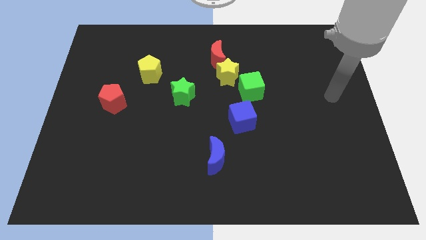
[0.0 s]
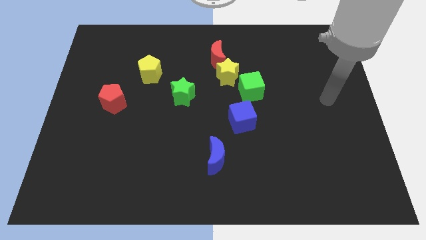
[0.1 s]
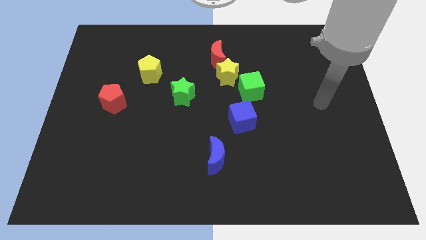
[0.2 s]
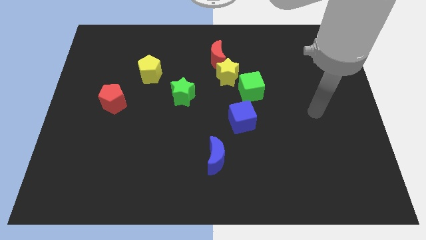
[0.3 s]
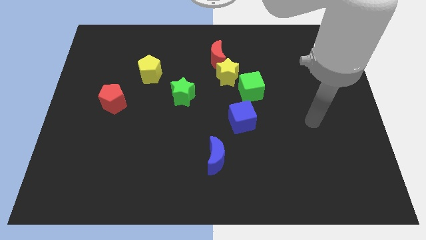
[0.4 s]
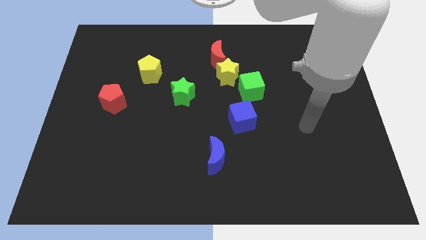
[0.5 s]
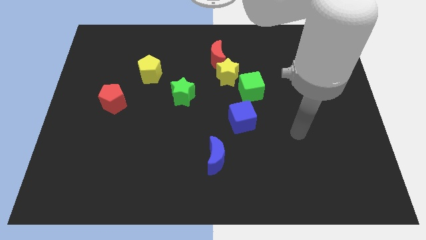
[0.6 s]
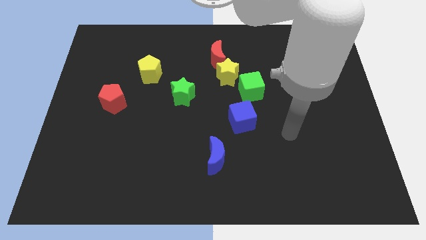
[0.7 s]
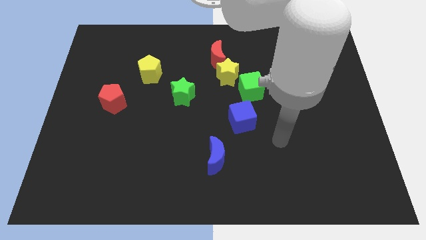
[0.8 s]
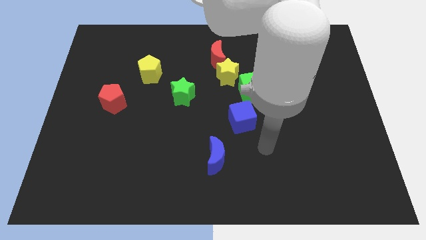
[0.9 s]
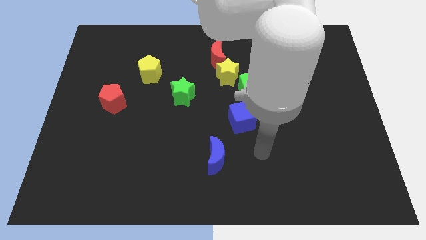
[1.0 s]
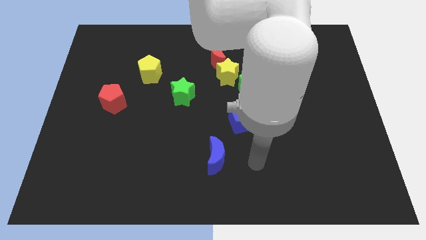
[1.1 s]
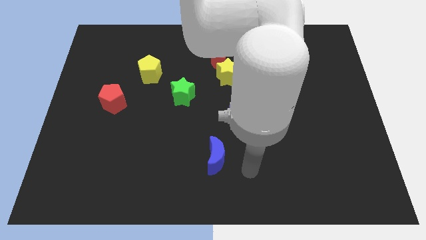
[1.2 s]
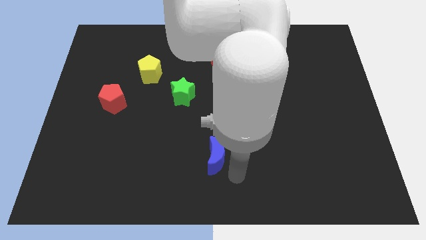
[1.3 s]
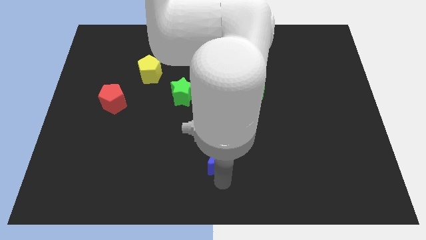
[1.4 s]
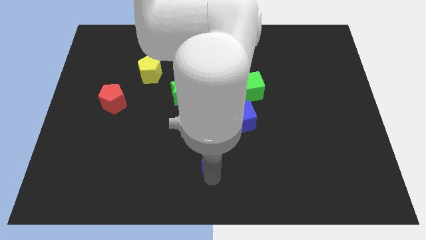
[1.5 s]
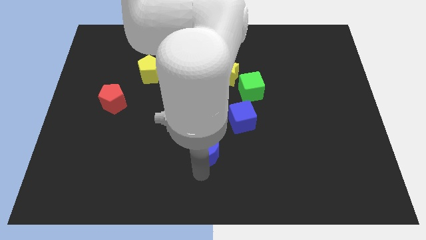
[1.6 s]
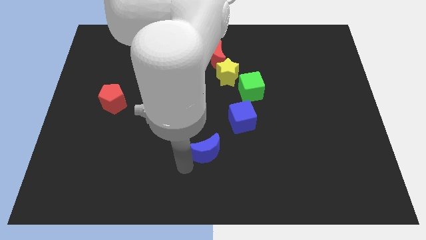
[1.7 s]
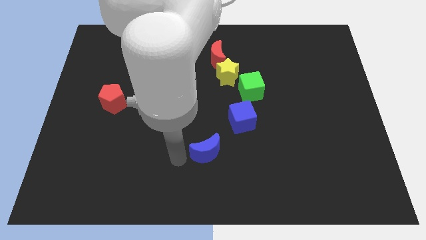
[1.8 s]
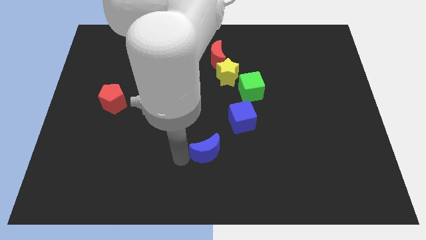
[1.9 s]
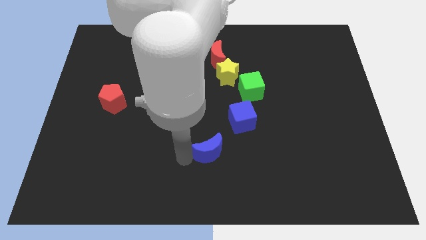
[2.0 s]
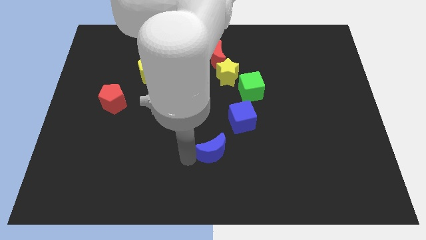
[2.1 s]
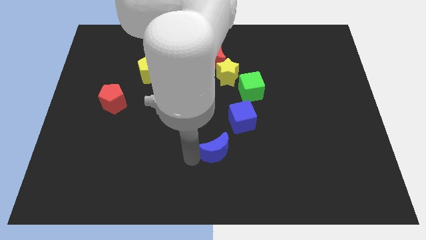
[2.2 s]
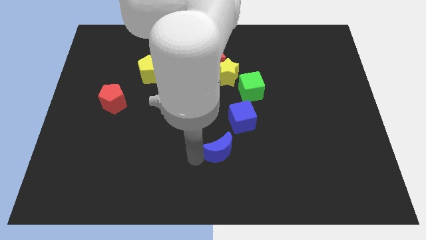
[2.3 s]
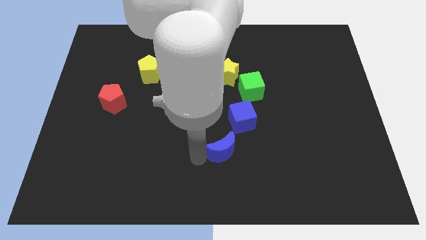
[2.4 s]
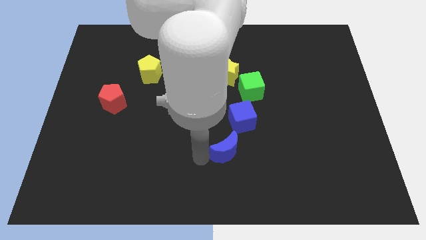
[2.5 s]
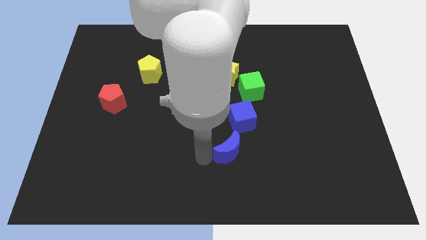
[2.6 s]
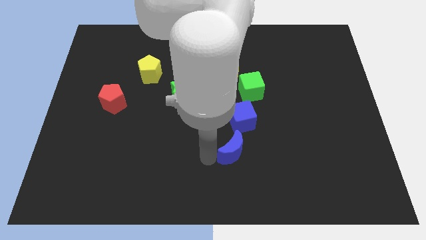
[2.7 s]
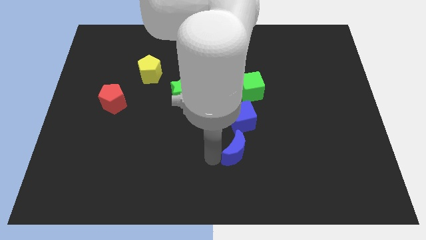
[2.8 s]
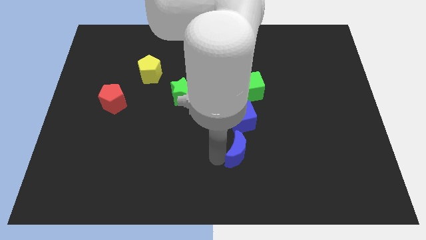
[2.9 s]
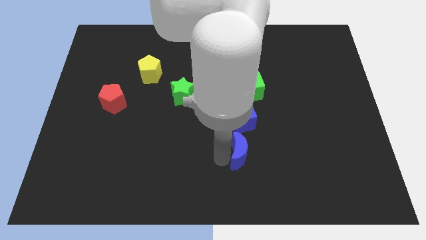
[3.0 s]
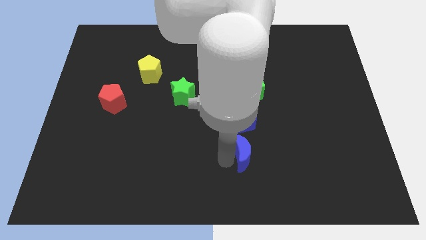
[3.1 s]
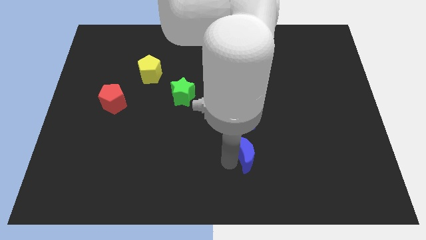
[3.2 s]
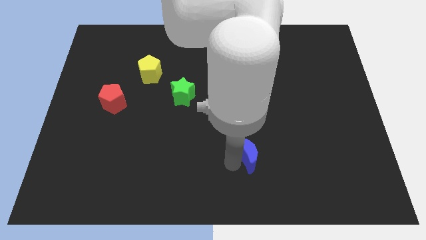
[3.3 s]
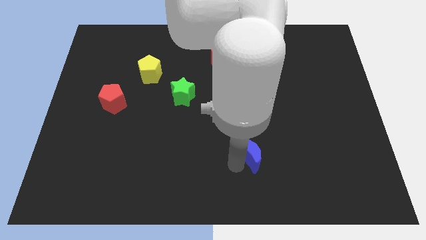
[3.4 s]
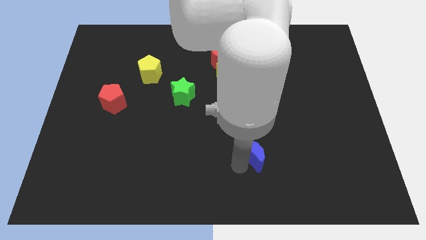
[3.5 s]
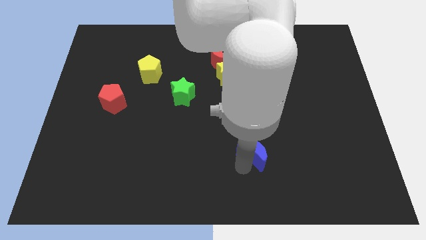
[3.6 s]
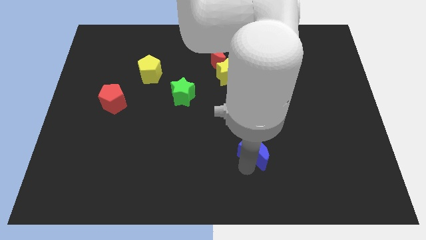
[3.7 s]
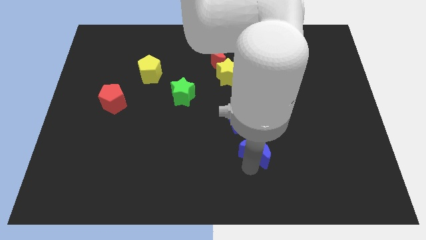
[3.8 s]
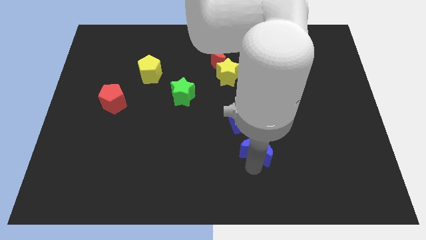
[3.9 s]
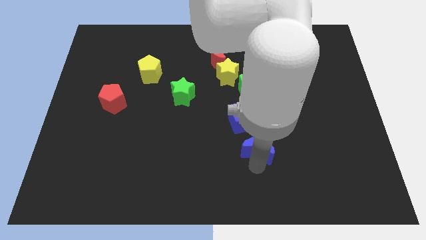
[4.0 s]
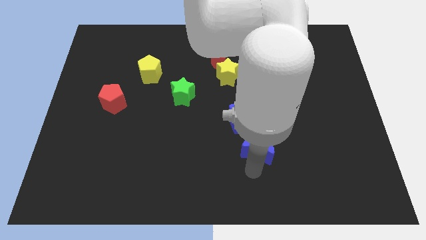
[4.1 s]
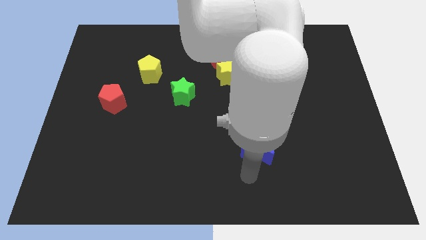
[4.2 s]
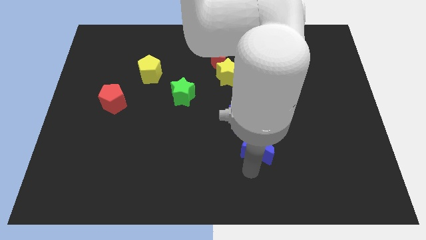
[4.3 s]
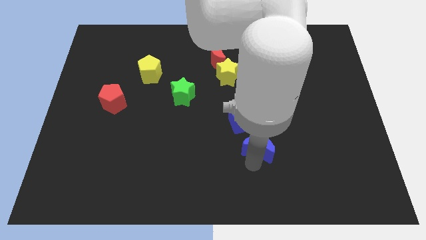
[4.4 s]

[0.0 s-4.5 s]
move the blue moon a little bit upwards and right diagonally

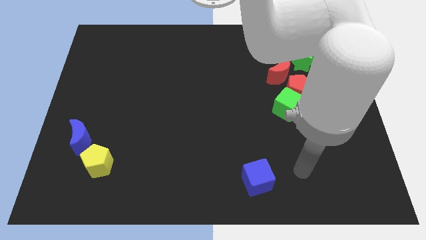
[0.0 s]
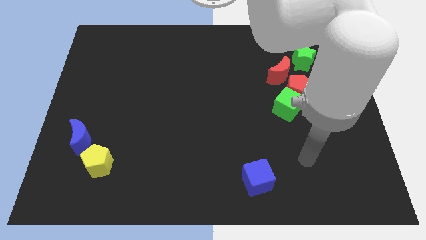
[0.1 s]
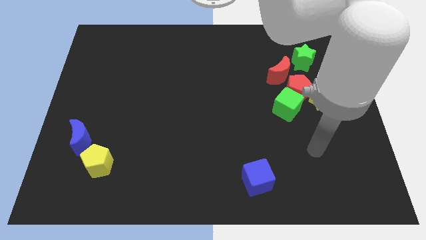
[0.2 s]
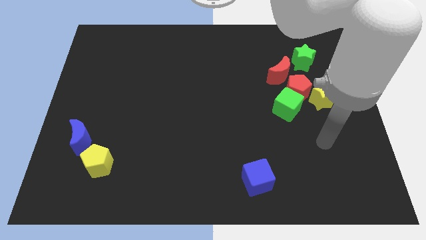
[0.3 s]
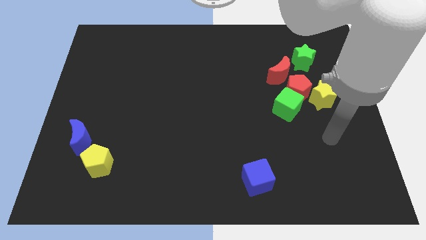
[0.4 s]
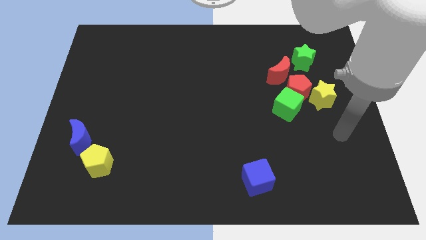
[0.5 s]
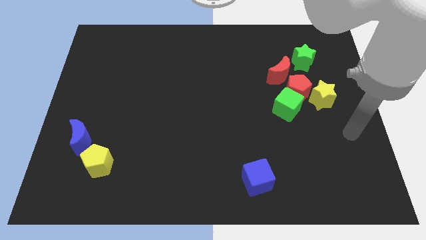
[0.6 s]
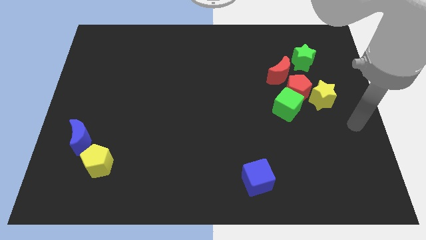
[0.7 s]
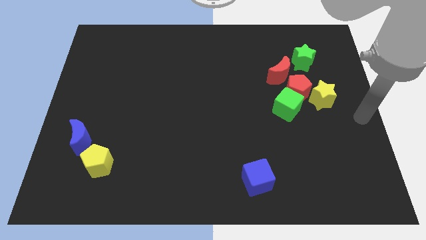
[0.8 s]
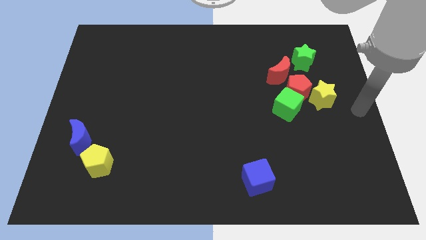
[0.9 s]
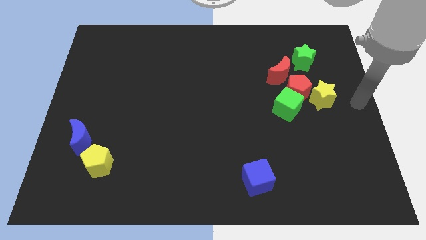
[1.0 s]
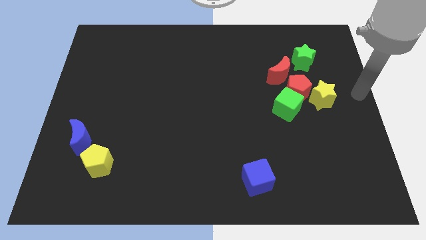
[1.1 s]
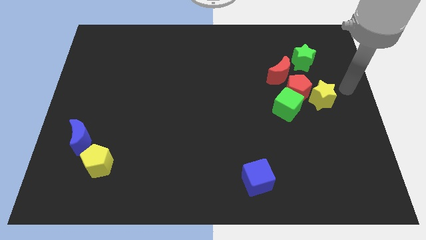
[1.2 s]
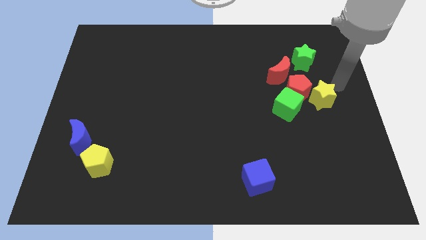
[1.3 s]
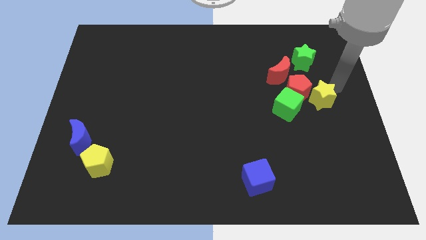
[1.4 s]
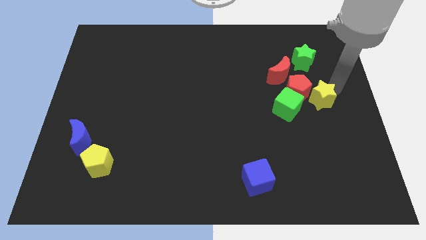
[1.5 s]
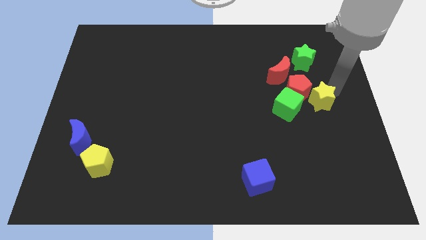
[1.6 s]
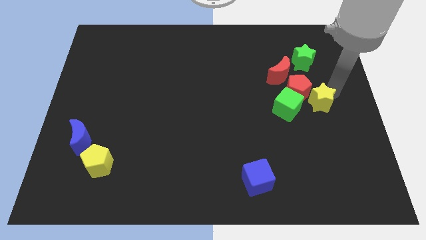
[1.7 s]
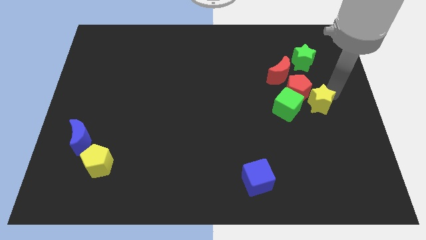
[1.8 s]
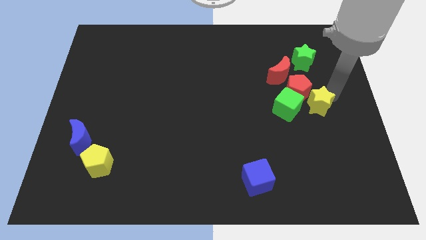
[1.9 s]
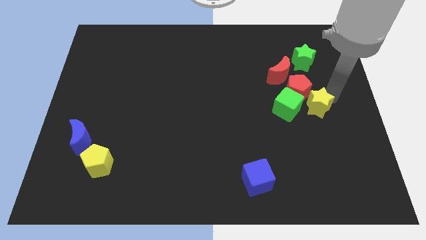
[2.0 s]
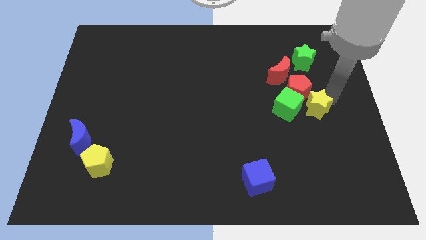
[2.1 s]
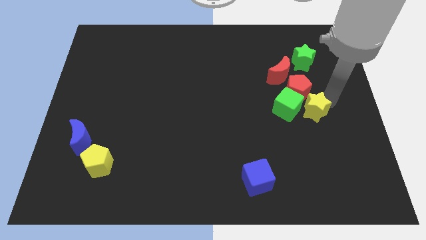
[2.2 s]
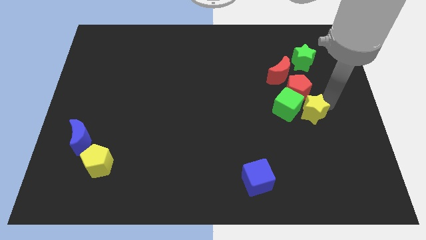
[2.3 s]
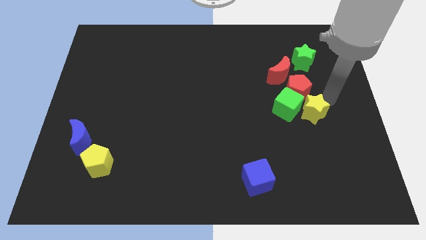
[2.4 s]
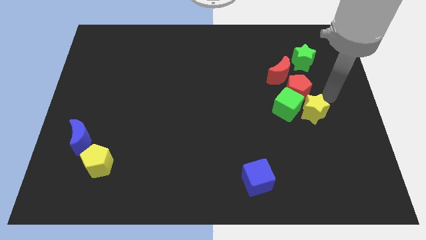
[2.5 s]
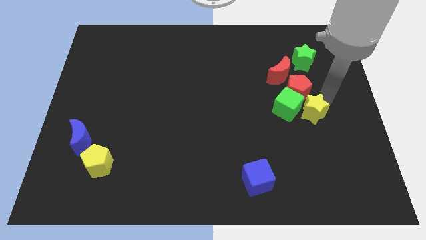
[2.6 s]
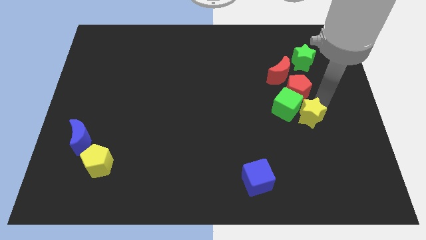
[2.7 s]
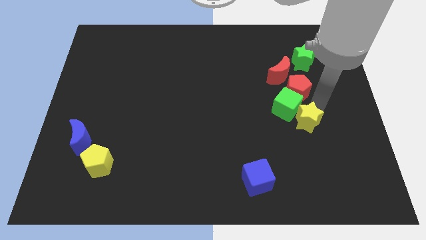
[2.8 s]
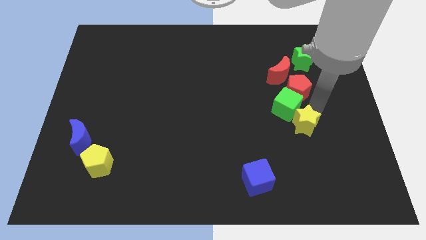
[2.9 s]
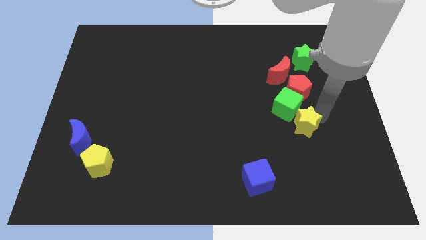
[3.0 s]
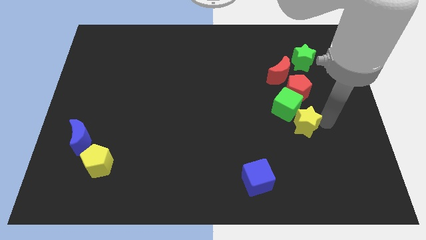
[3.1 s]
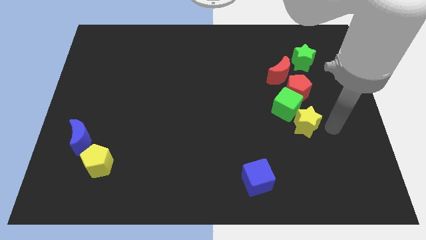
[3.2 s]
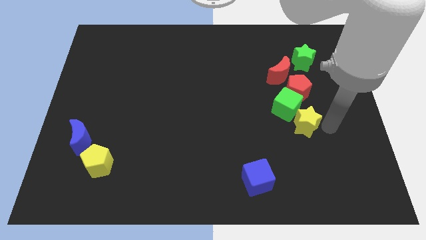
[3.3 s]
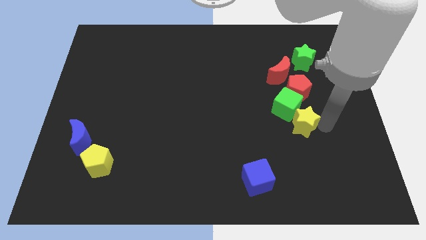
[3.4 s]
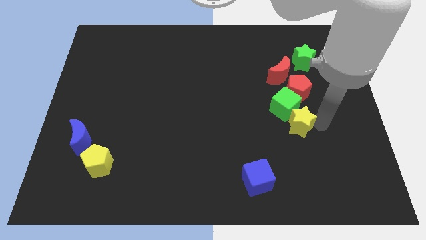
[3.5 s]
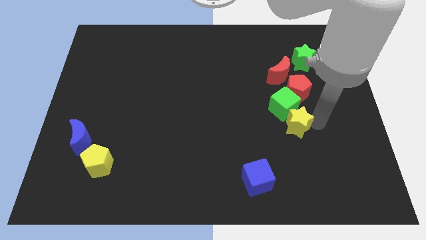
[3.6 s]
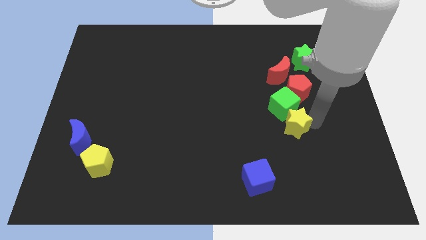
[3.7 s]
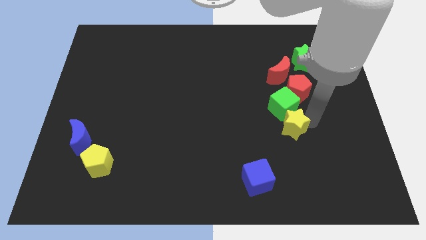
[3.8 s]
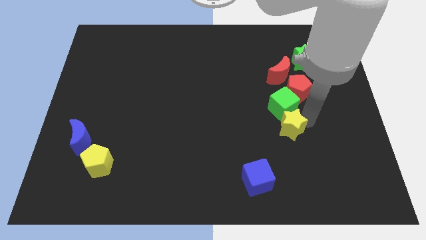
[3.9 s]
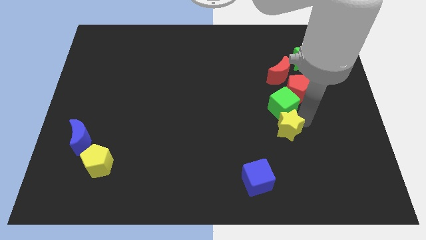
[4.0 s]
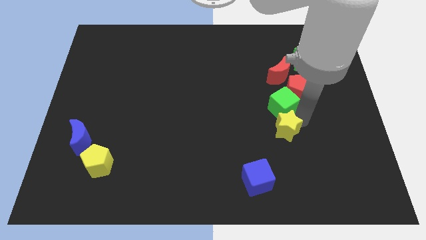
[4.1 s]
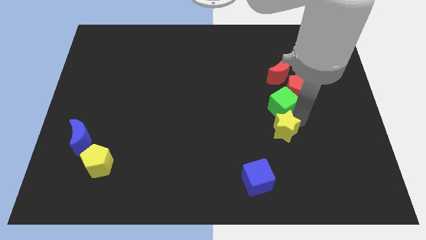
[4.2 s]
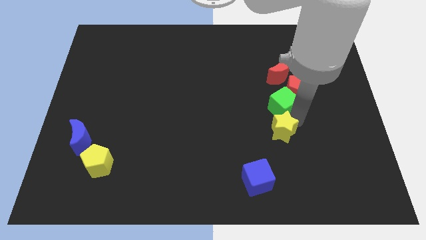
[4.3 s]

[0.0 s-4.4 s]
move the yellow star somewhat left
